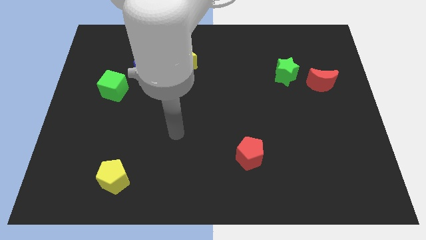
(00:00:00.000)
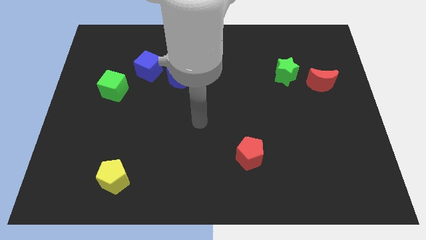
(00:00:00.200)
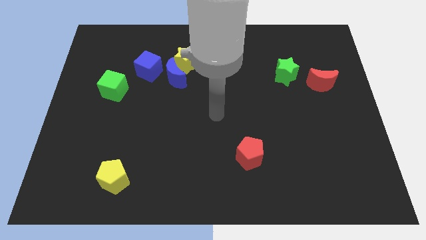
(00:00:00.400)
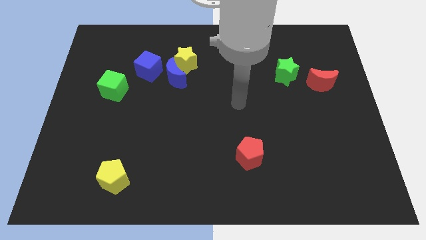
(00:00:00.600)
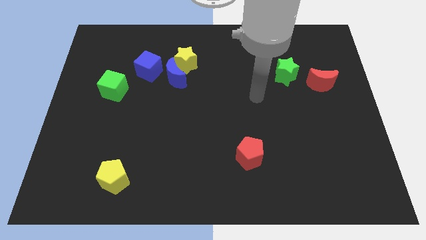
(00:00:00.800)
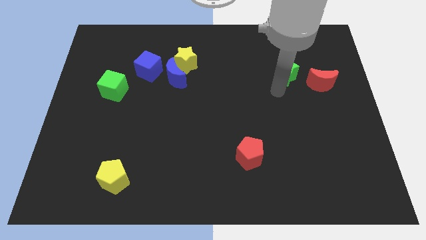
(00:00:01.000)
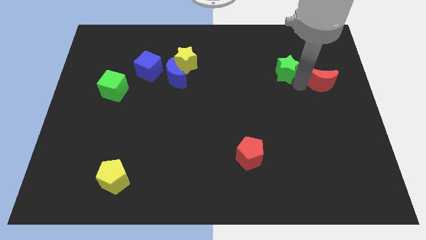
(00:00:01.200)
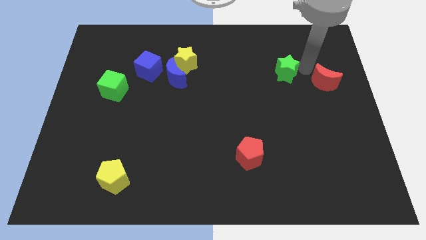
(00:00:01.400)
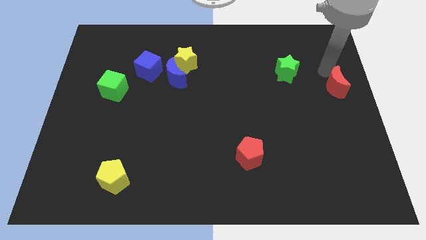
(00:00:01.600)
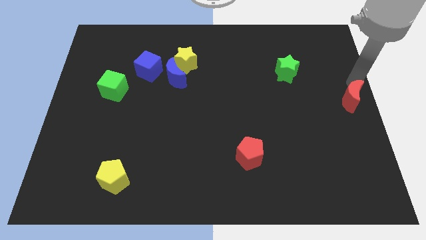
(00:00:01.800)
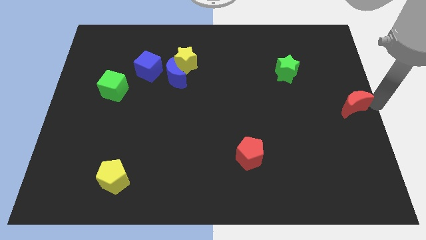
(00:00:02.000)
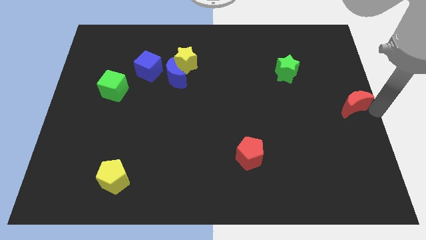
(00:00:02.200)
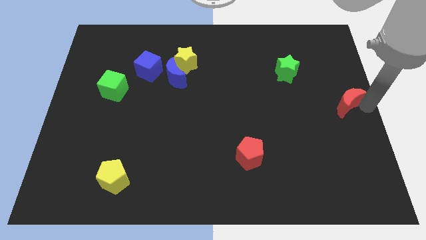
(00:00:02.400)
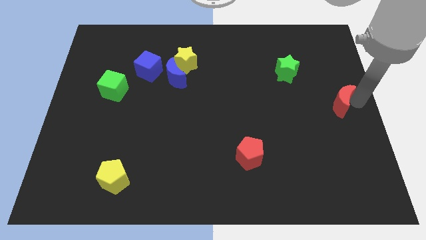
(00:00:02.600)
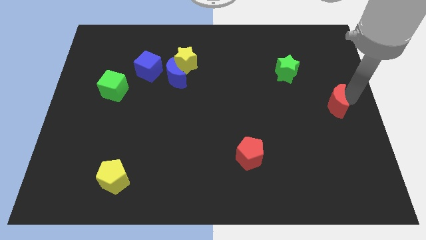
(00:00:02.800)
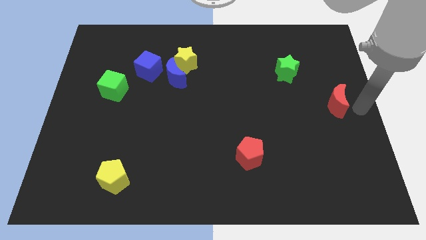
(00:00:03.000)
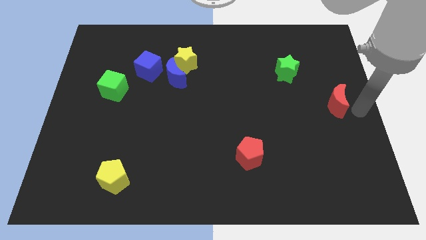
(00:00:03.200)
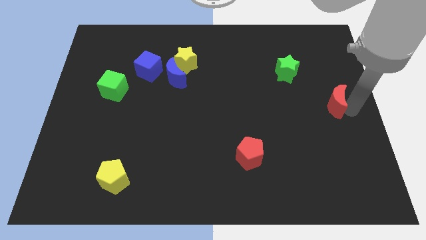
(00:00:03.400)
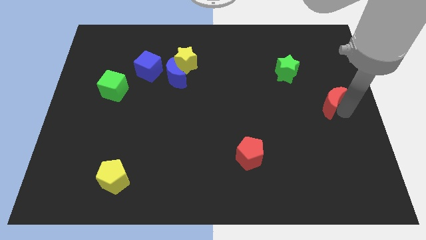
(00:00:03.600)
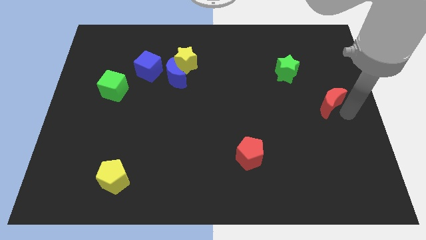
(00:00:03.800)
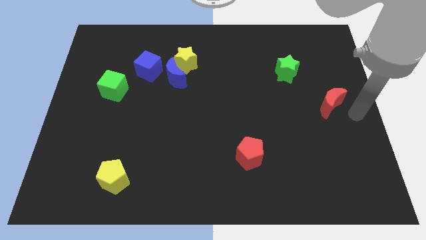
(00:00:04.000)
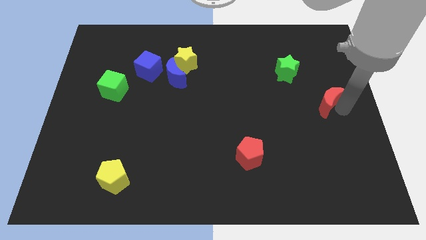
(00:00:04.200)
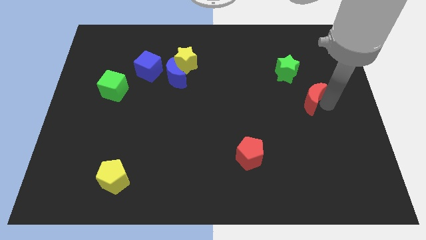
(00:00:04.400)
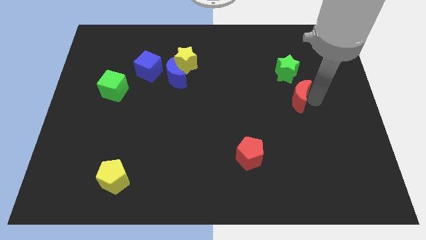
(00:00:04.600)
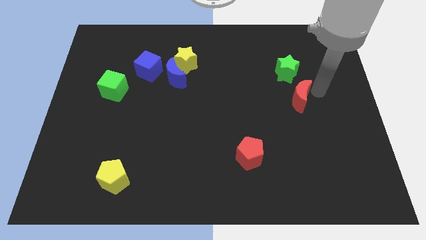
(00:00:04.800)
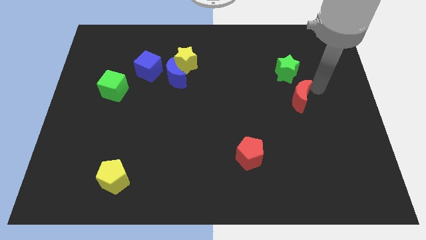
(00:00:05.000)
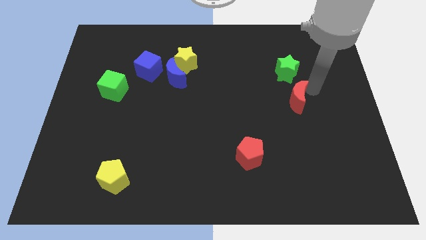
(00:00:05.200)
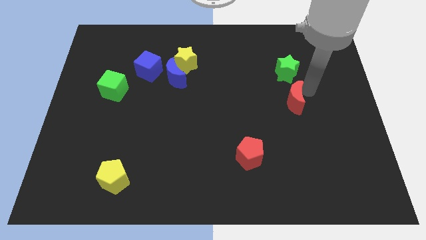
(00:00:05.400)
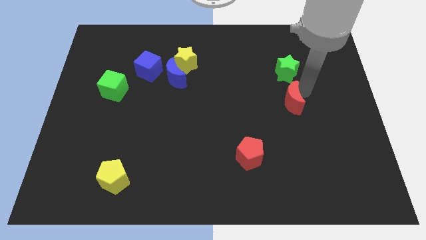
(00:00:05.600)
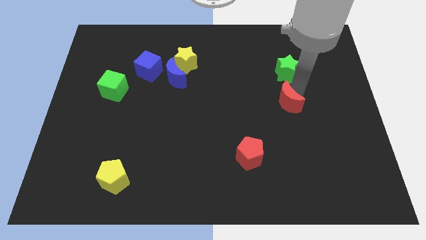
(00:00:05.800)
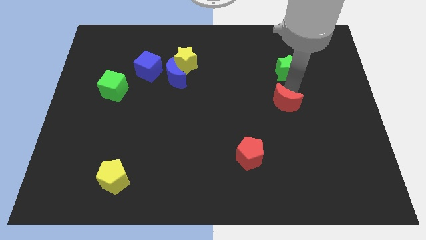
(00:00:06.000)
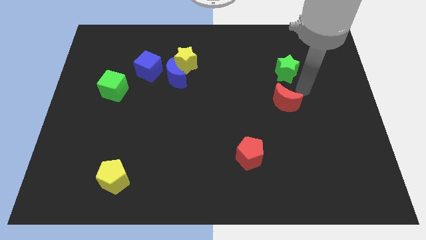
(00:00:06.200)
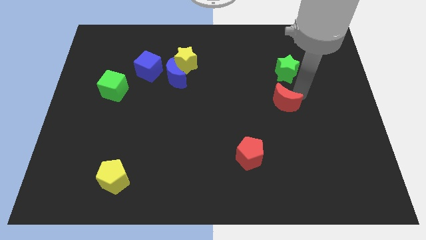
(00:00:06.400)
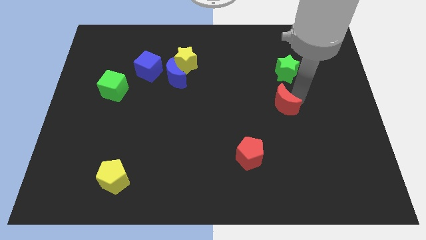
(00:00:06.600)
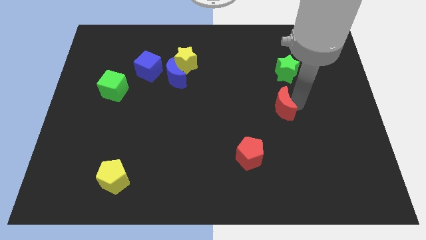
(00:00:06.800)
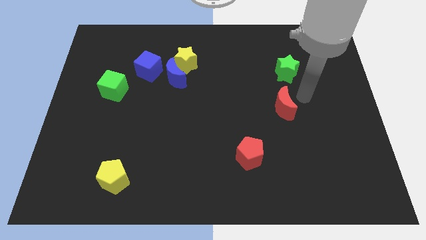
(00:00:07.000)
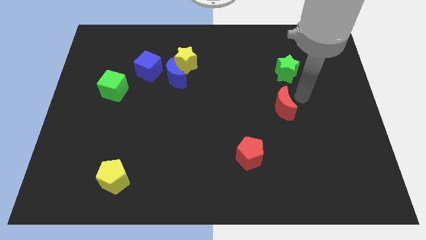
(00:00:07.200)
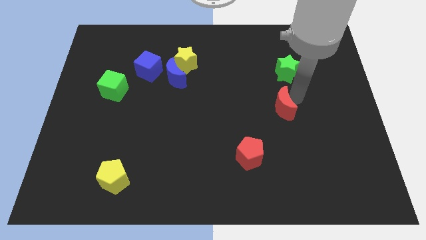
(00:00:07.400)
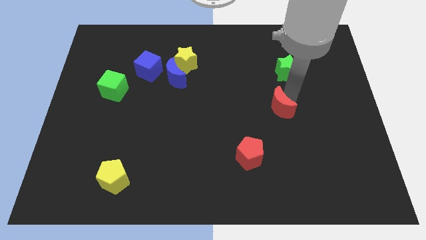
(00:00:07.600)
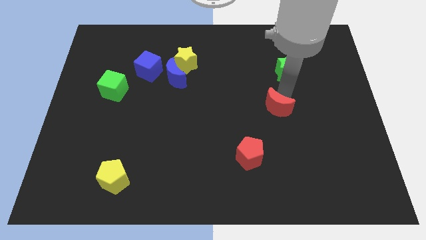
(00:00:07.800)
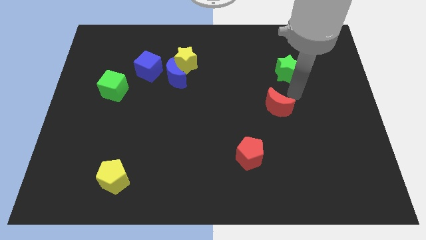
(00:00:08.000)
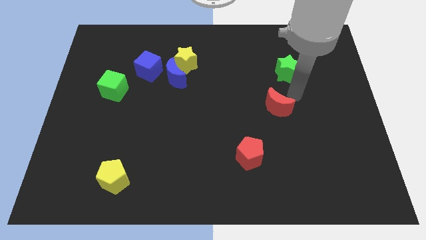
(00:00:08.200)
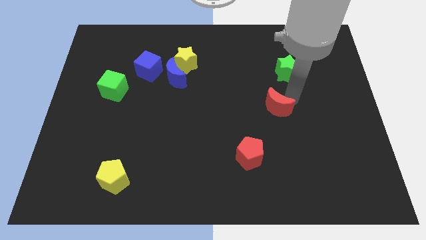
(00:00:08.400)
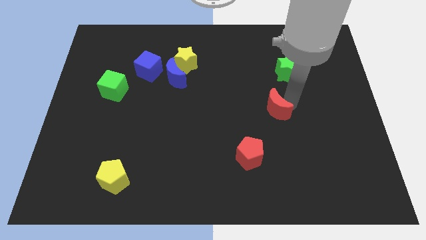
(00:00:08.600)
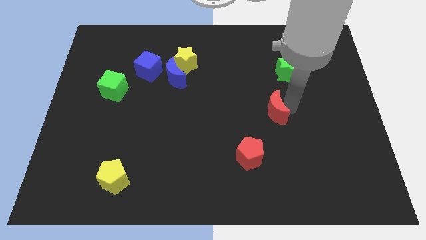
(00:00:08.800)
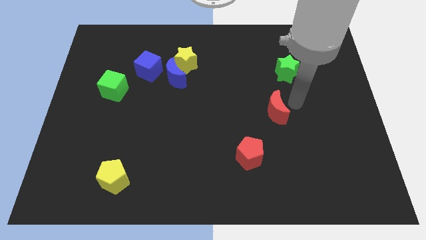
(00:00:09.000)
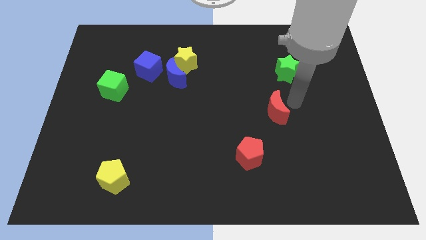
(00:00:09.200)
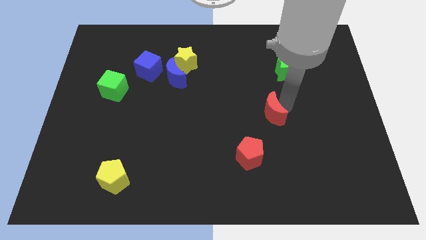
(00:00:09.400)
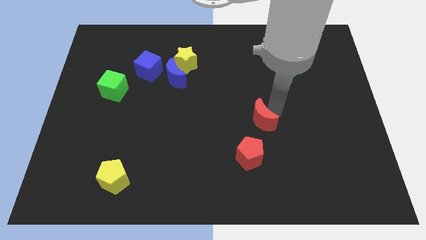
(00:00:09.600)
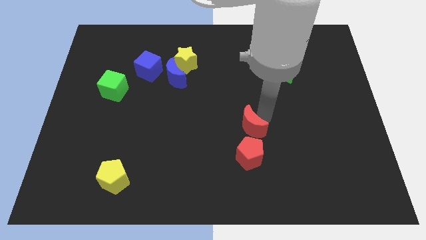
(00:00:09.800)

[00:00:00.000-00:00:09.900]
move the red moon down and left

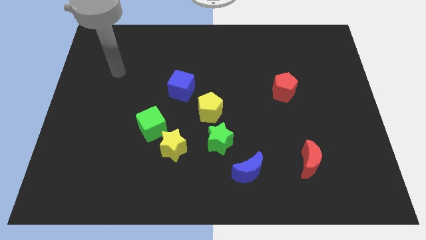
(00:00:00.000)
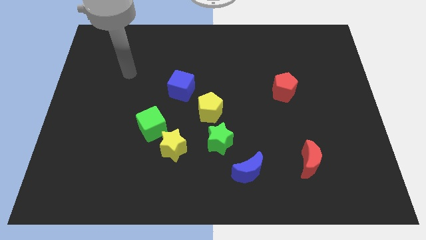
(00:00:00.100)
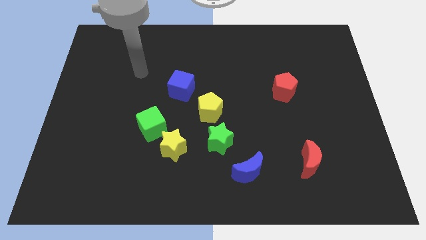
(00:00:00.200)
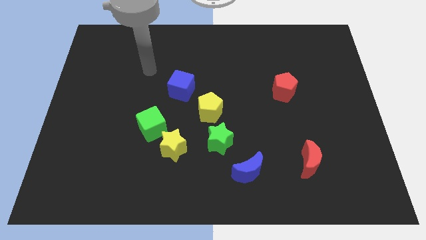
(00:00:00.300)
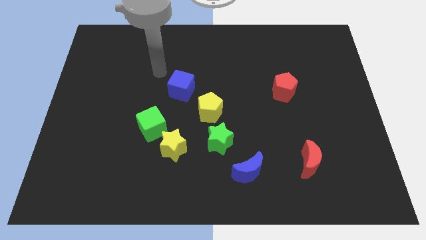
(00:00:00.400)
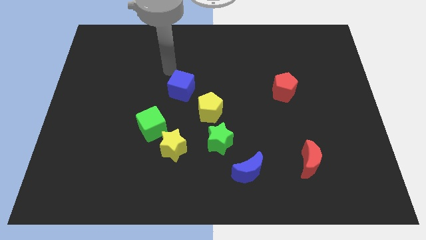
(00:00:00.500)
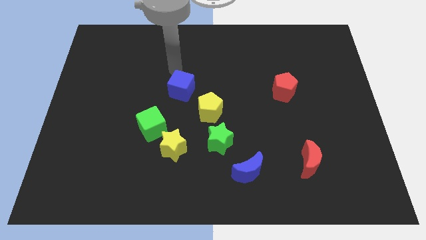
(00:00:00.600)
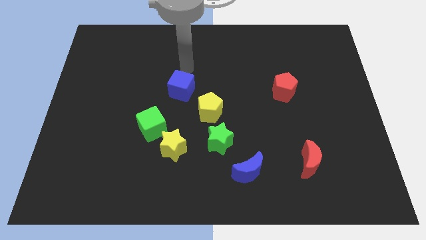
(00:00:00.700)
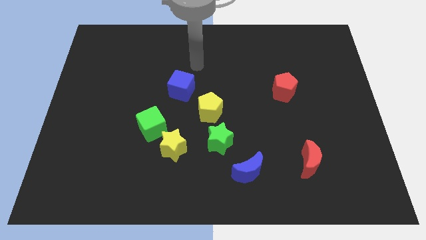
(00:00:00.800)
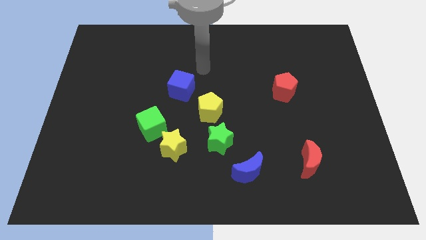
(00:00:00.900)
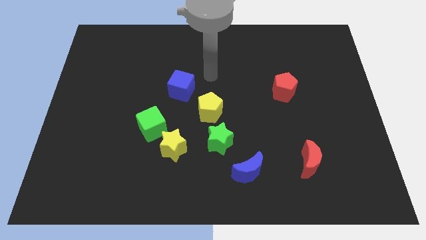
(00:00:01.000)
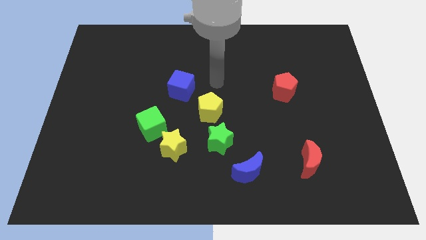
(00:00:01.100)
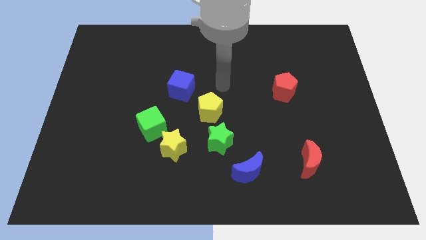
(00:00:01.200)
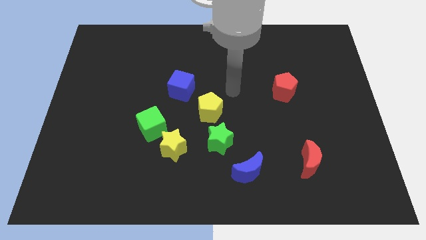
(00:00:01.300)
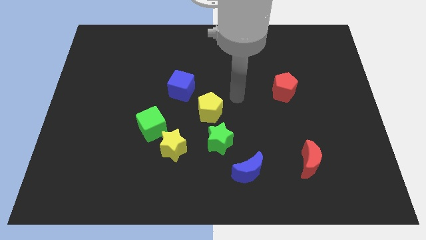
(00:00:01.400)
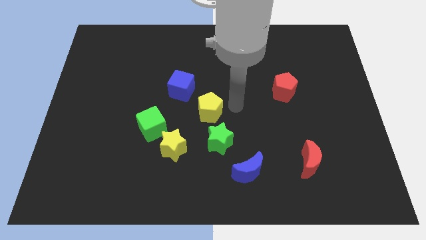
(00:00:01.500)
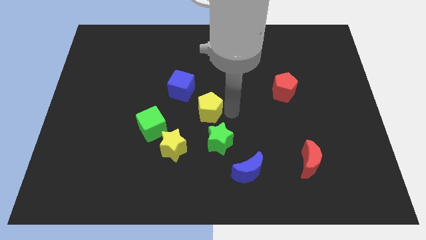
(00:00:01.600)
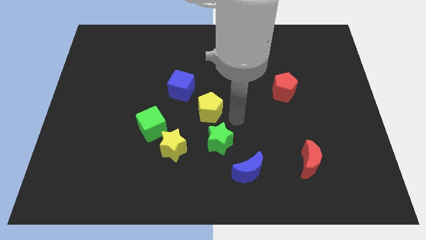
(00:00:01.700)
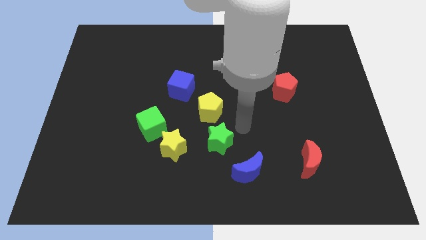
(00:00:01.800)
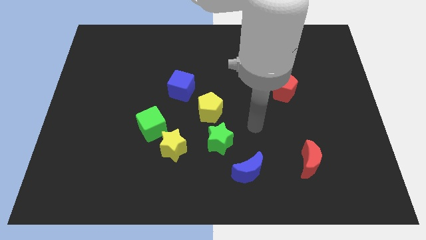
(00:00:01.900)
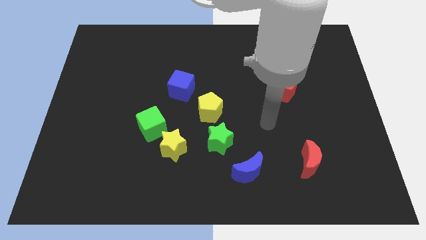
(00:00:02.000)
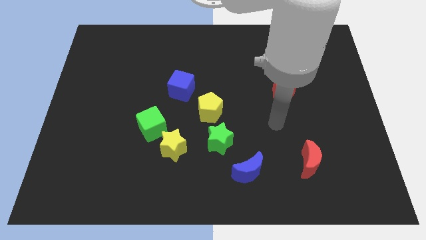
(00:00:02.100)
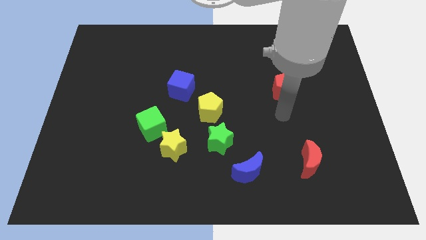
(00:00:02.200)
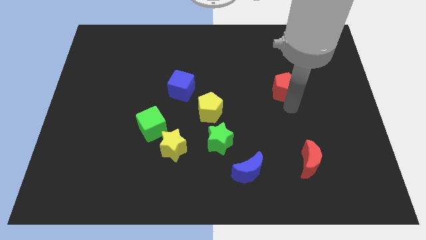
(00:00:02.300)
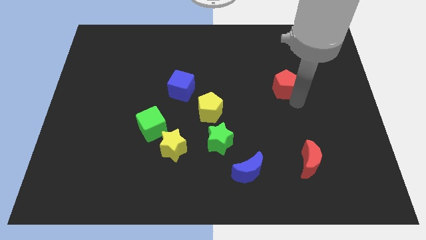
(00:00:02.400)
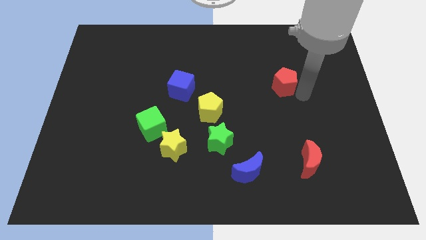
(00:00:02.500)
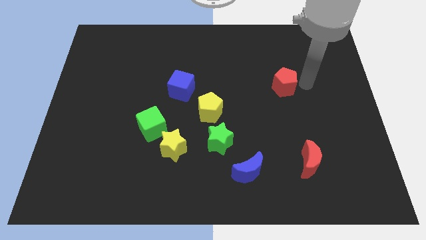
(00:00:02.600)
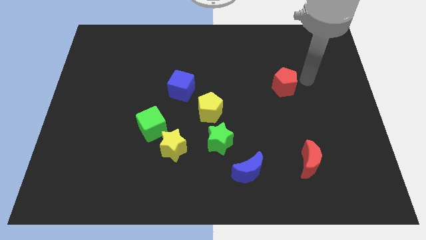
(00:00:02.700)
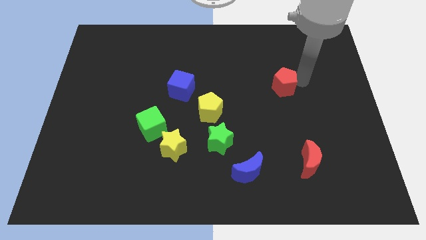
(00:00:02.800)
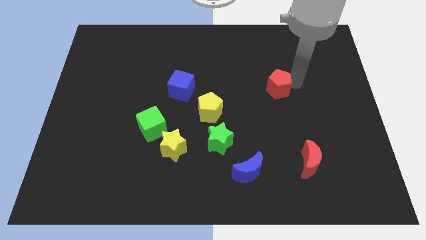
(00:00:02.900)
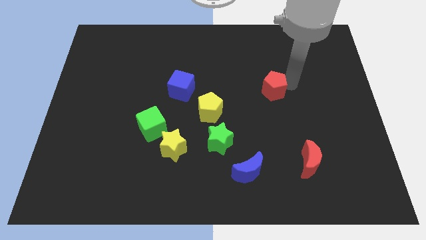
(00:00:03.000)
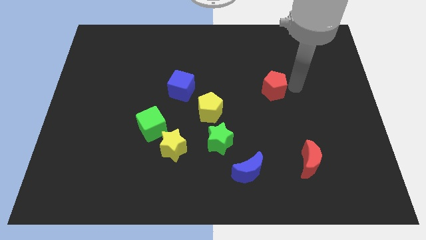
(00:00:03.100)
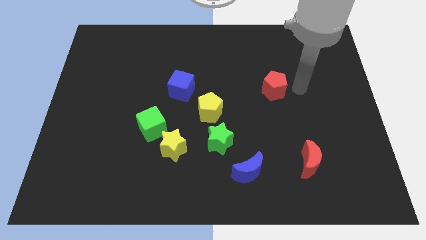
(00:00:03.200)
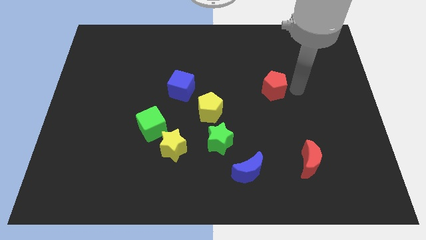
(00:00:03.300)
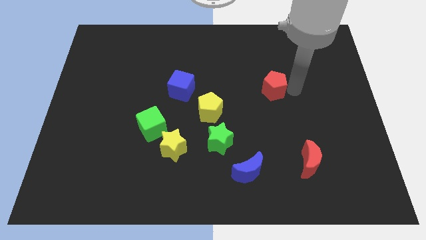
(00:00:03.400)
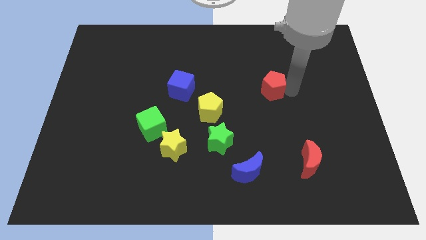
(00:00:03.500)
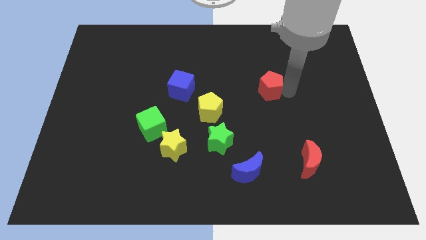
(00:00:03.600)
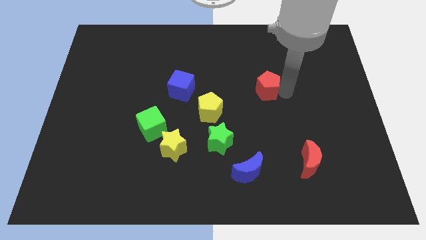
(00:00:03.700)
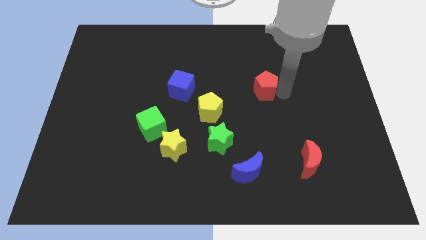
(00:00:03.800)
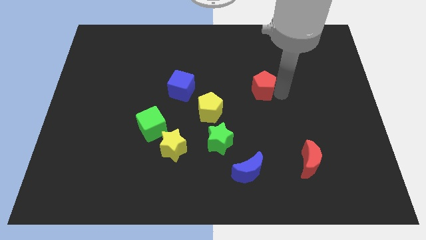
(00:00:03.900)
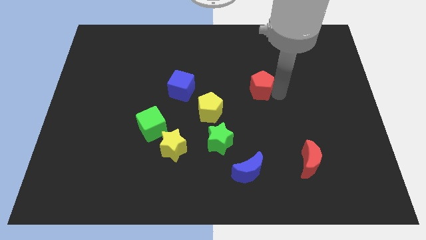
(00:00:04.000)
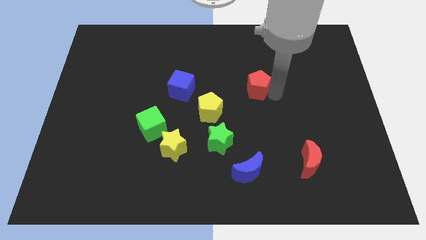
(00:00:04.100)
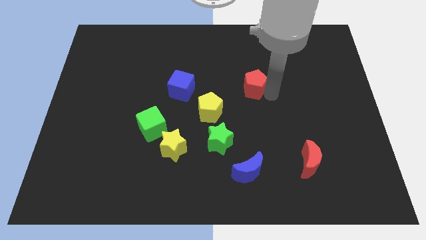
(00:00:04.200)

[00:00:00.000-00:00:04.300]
slide the red pentagon left slightly
